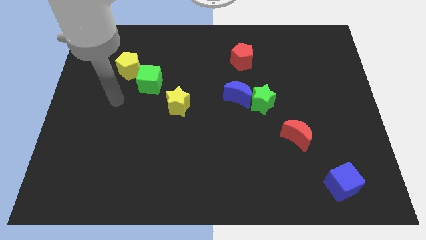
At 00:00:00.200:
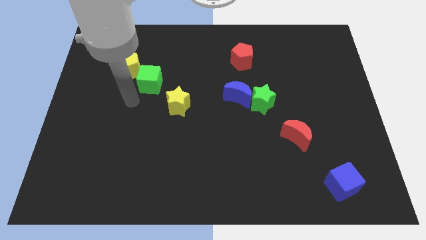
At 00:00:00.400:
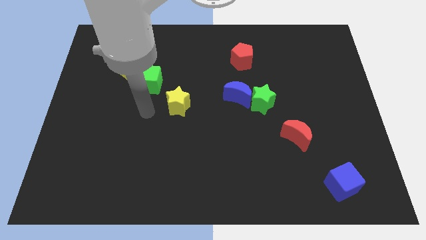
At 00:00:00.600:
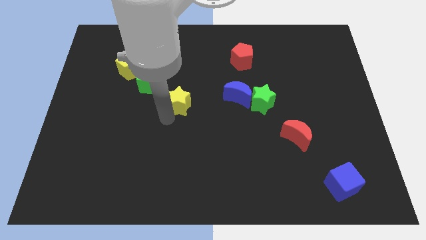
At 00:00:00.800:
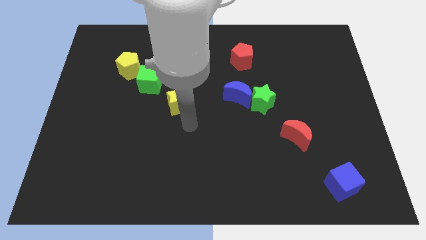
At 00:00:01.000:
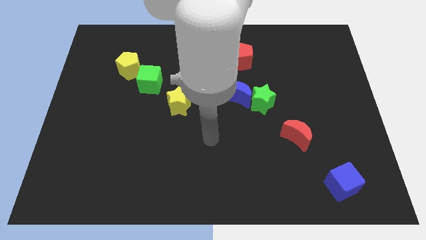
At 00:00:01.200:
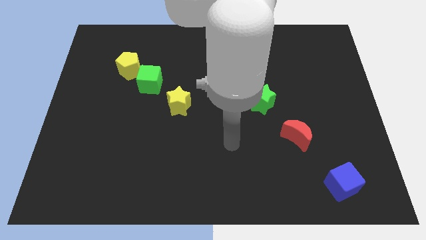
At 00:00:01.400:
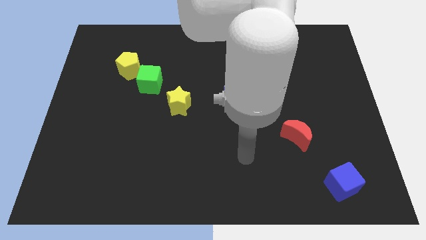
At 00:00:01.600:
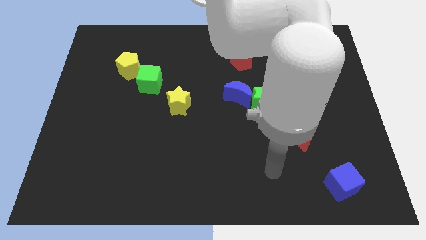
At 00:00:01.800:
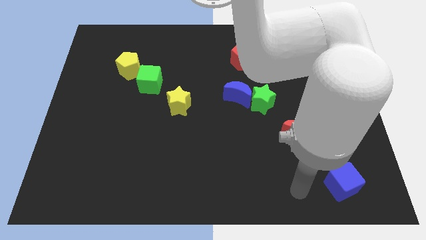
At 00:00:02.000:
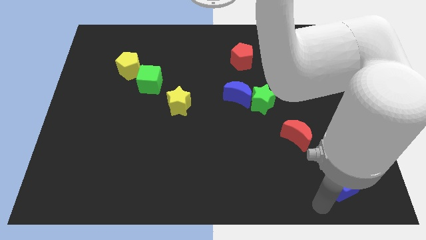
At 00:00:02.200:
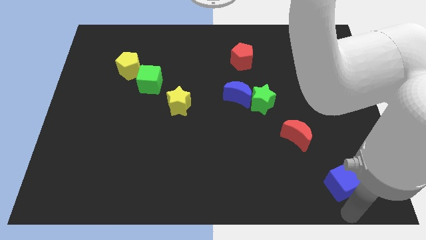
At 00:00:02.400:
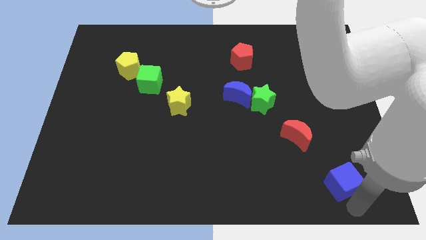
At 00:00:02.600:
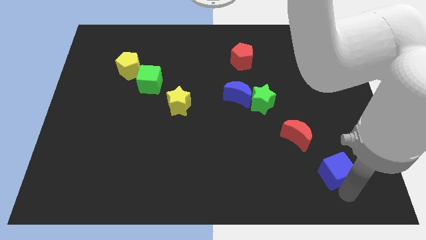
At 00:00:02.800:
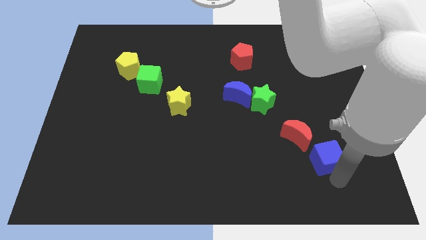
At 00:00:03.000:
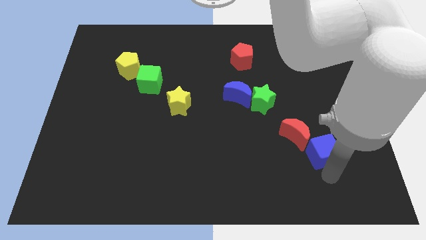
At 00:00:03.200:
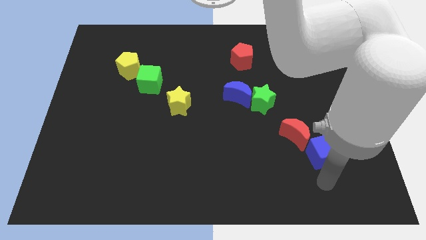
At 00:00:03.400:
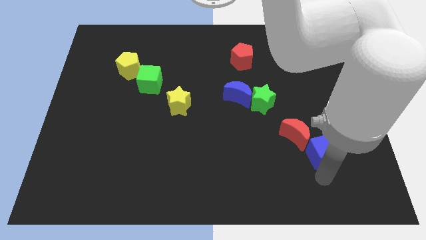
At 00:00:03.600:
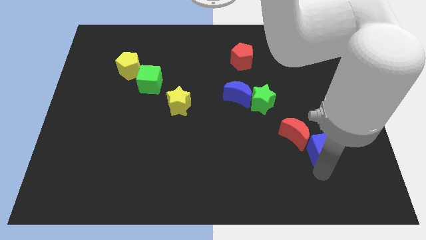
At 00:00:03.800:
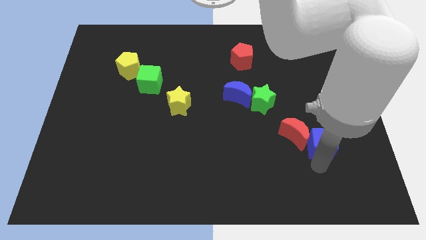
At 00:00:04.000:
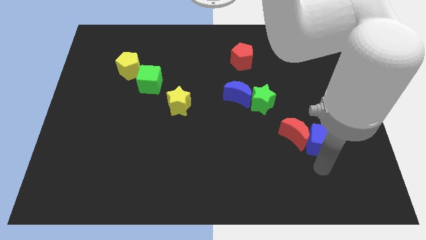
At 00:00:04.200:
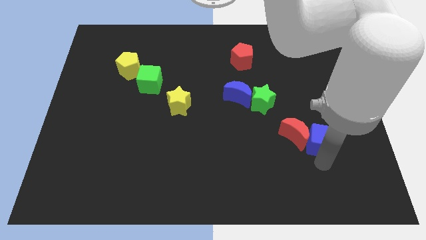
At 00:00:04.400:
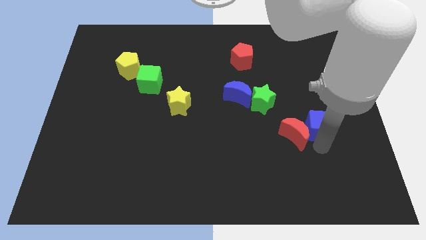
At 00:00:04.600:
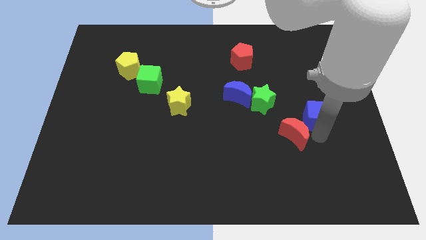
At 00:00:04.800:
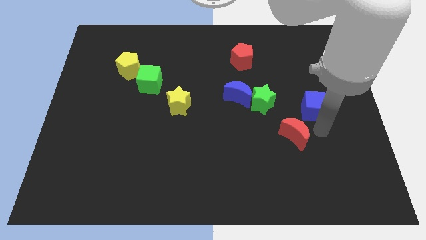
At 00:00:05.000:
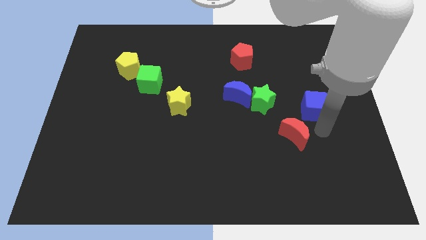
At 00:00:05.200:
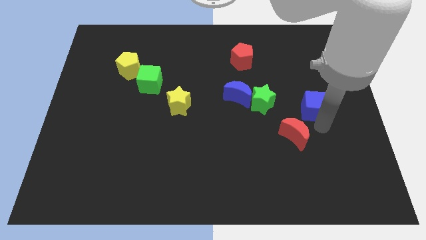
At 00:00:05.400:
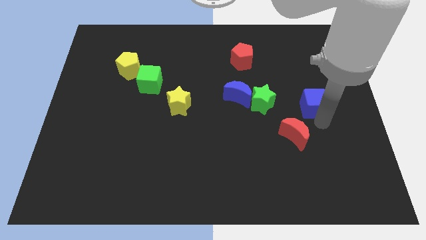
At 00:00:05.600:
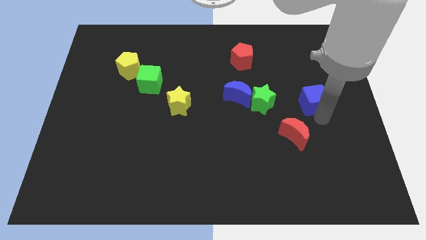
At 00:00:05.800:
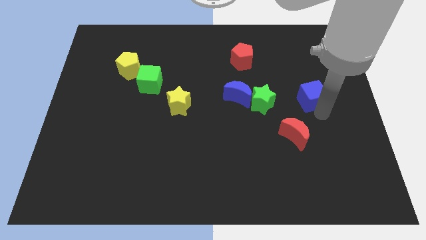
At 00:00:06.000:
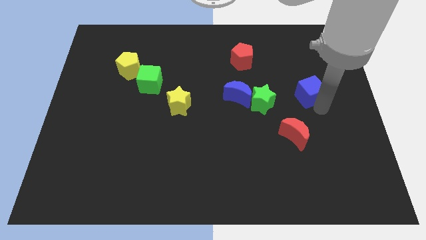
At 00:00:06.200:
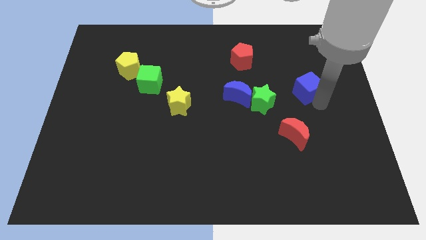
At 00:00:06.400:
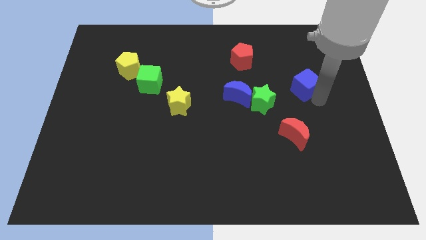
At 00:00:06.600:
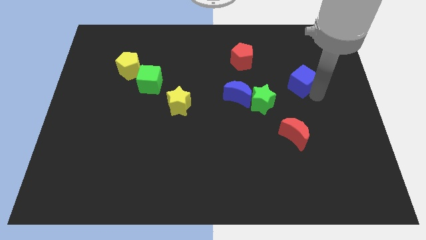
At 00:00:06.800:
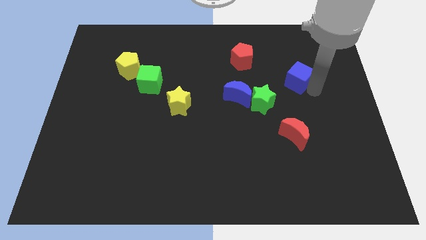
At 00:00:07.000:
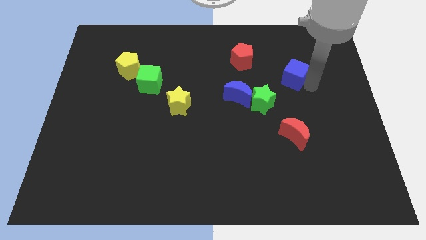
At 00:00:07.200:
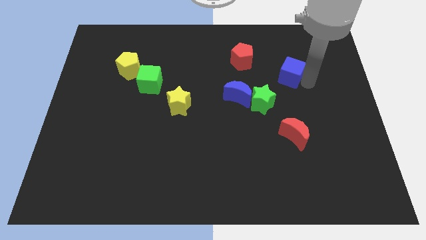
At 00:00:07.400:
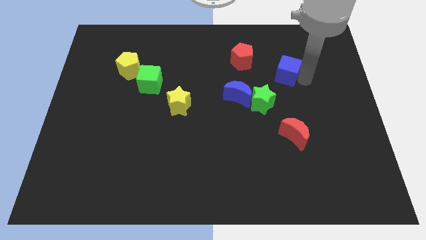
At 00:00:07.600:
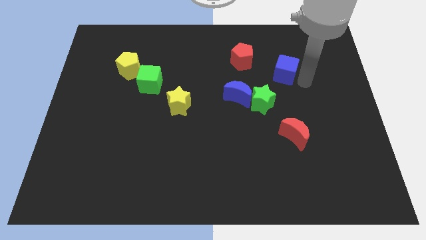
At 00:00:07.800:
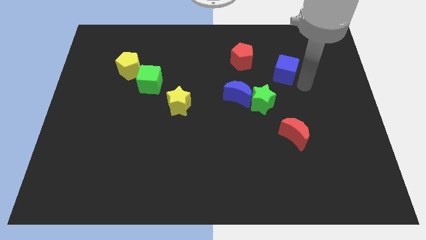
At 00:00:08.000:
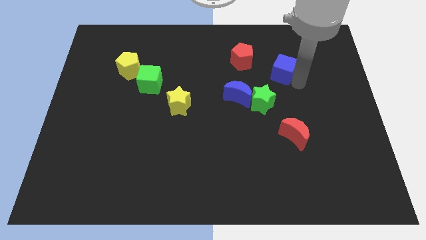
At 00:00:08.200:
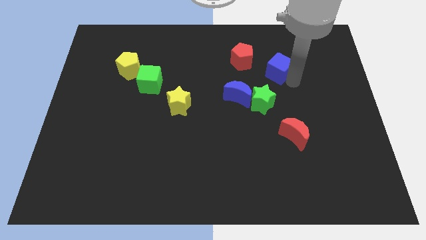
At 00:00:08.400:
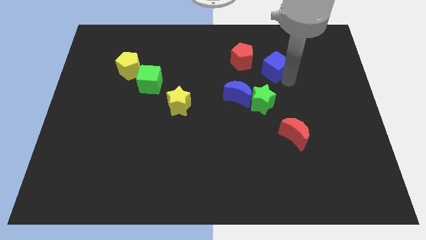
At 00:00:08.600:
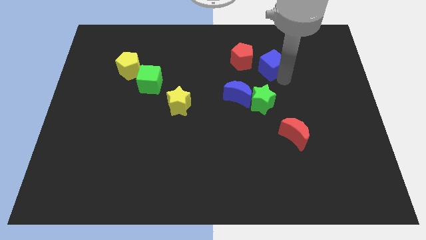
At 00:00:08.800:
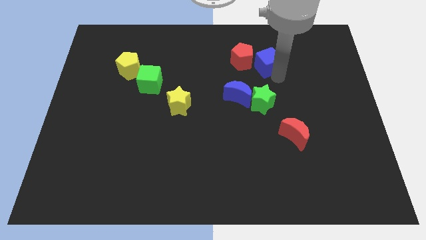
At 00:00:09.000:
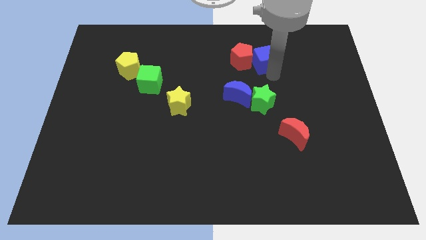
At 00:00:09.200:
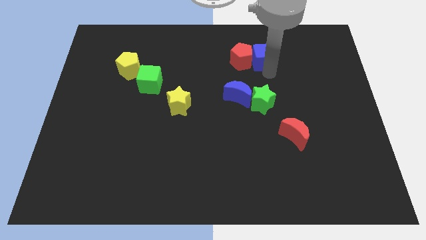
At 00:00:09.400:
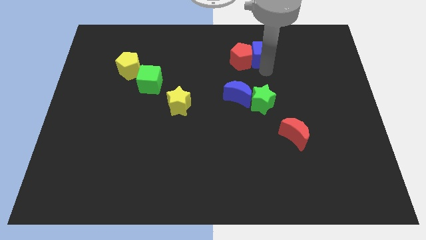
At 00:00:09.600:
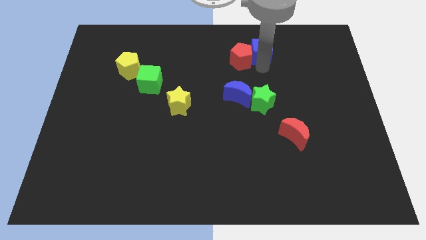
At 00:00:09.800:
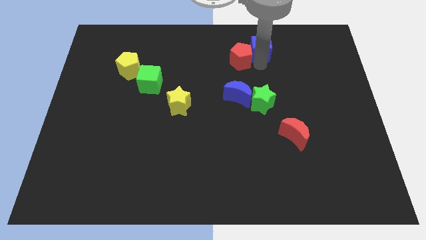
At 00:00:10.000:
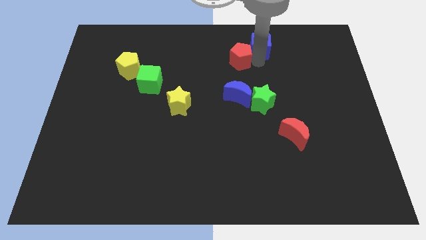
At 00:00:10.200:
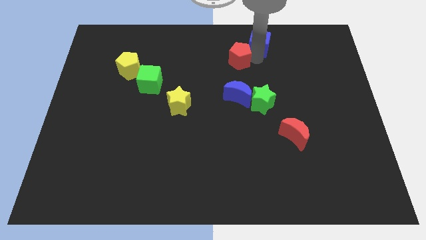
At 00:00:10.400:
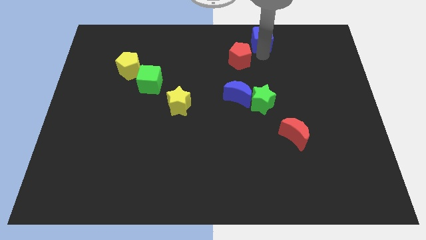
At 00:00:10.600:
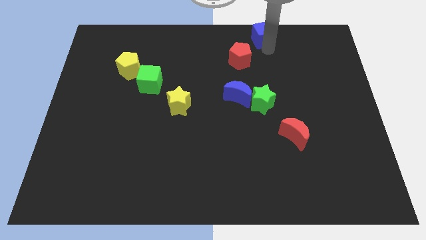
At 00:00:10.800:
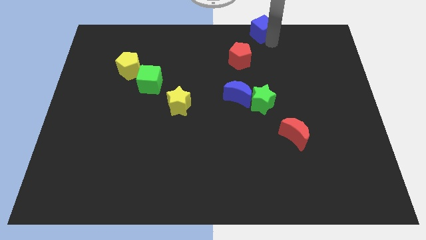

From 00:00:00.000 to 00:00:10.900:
slide the blue cube to the top side
